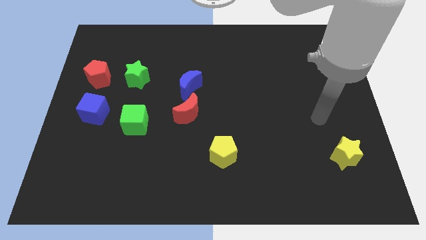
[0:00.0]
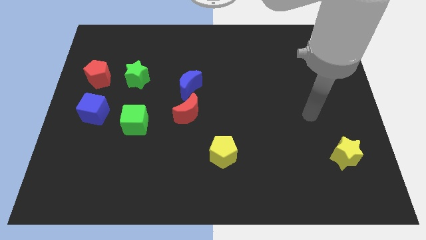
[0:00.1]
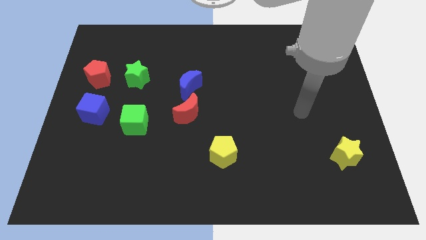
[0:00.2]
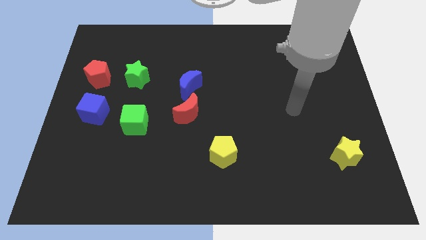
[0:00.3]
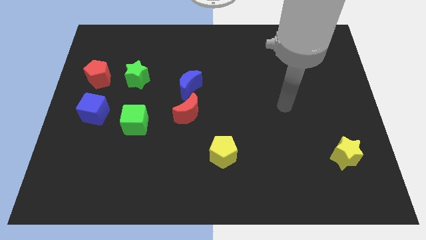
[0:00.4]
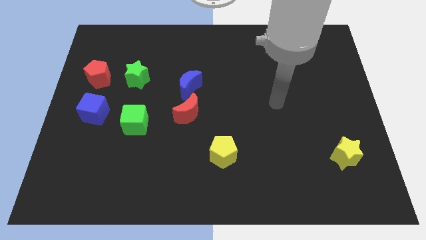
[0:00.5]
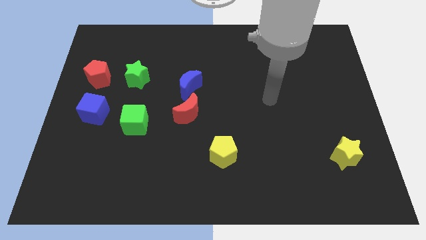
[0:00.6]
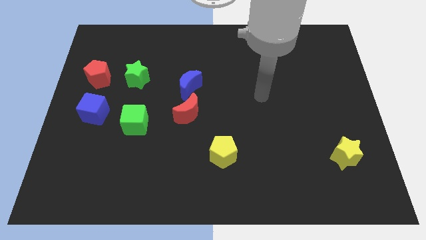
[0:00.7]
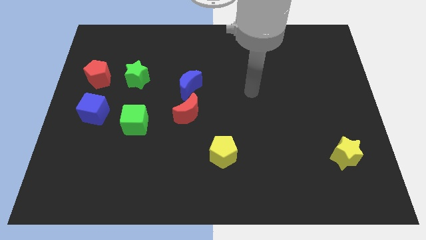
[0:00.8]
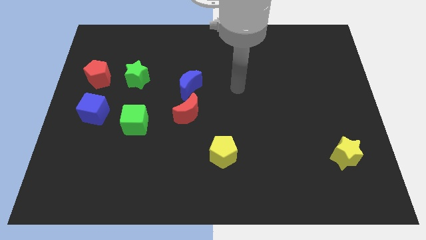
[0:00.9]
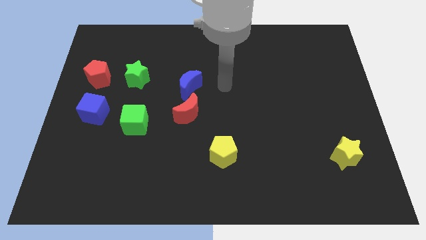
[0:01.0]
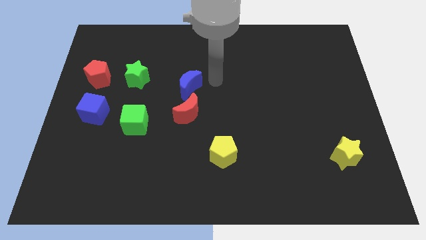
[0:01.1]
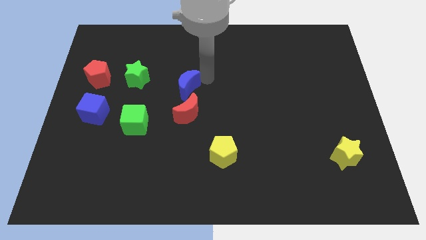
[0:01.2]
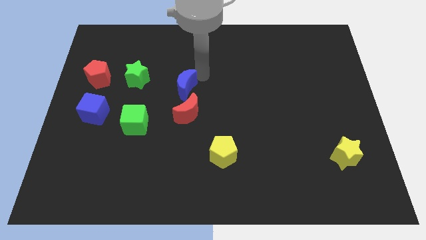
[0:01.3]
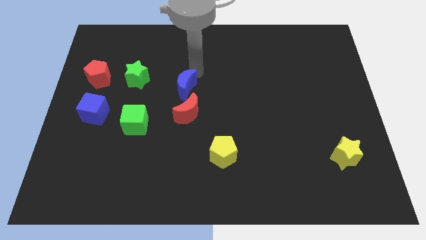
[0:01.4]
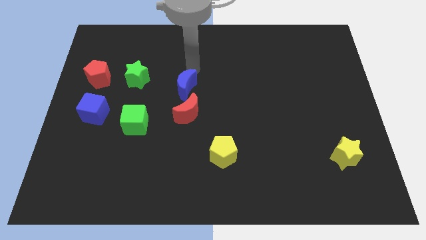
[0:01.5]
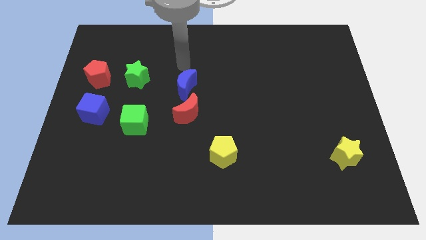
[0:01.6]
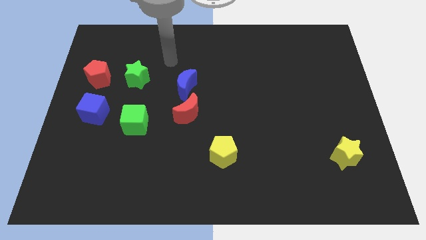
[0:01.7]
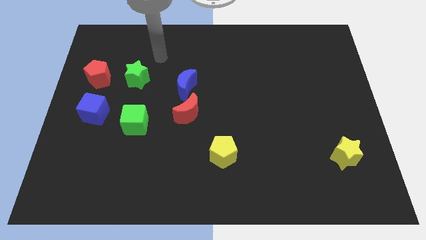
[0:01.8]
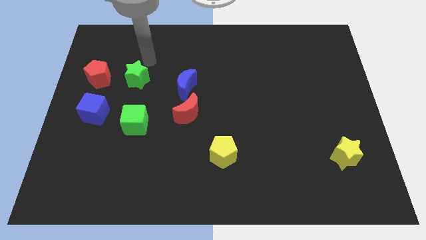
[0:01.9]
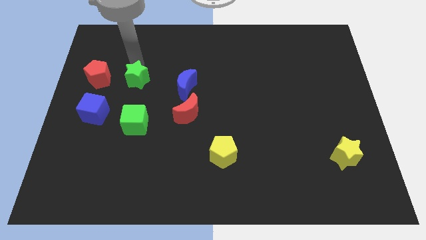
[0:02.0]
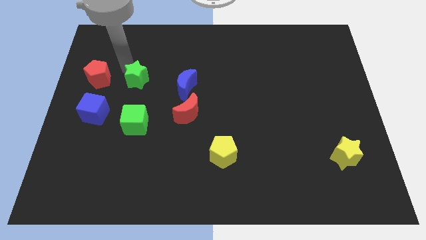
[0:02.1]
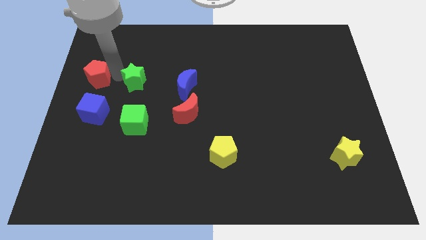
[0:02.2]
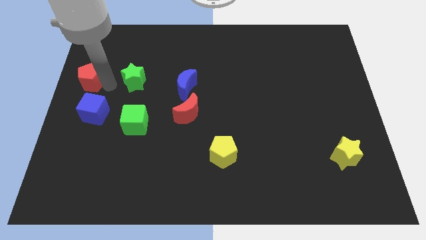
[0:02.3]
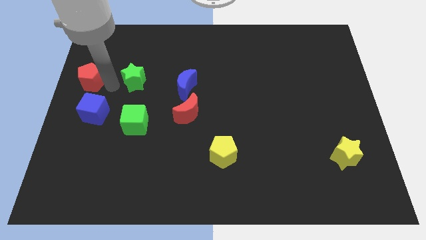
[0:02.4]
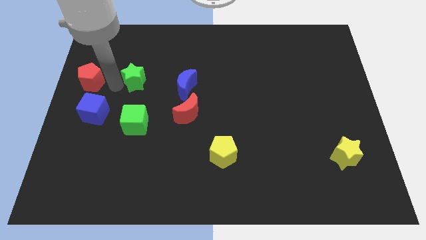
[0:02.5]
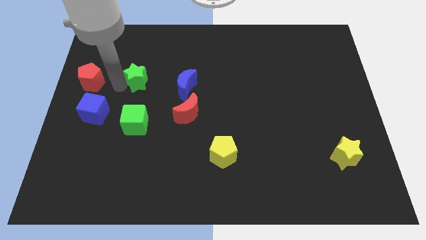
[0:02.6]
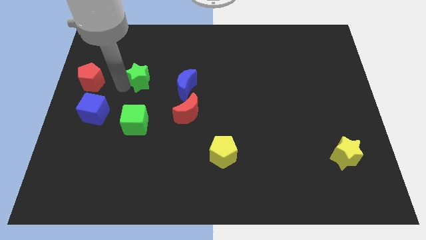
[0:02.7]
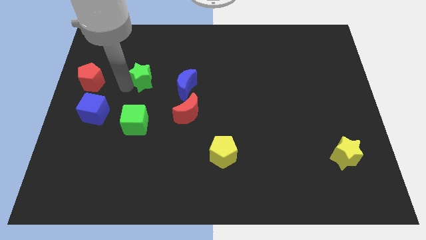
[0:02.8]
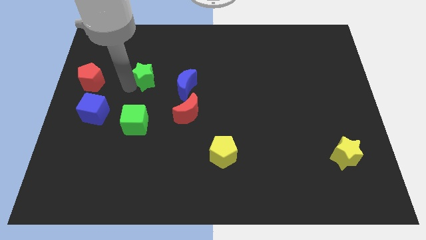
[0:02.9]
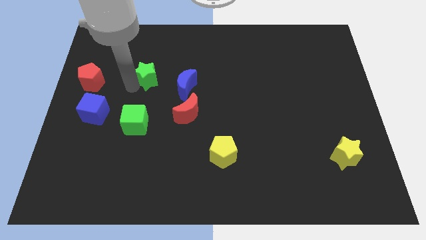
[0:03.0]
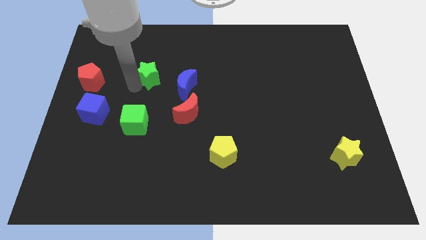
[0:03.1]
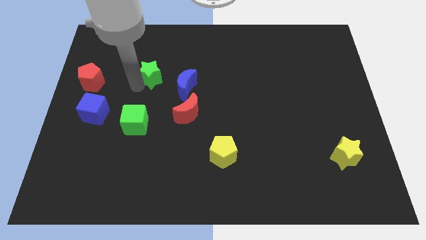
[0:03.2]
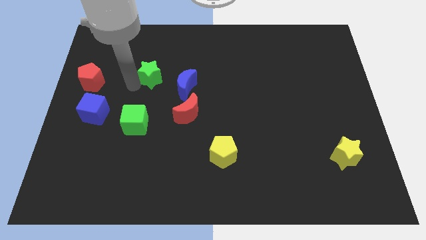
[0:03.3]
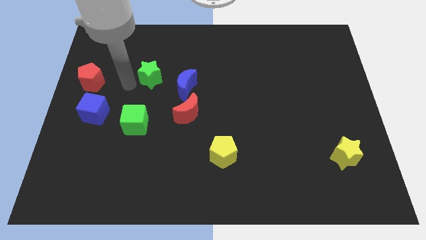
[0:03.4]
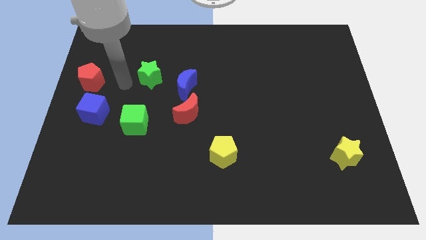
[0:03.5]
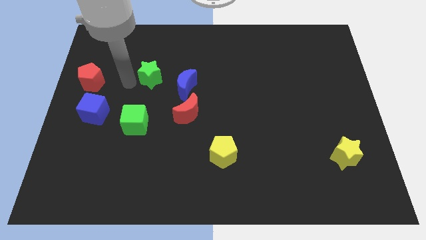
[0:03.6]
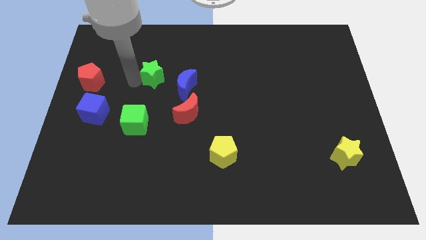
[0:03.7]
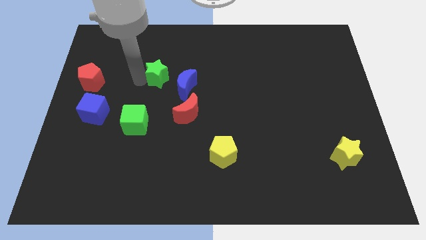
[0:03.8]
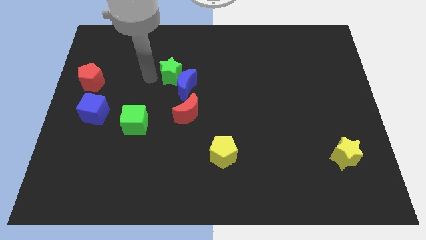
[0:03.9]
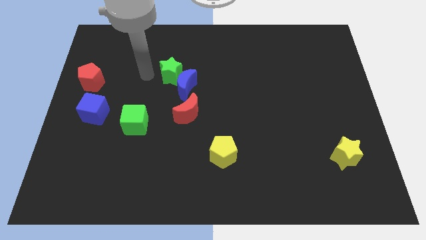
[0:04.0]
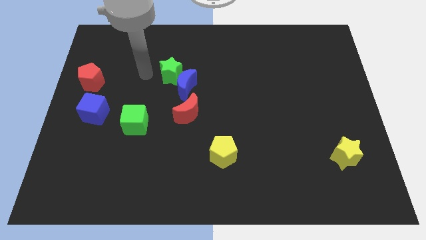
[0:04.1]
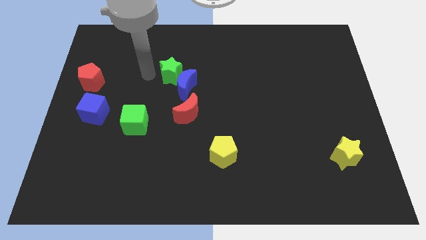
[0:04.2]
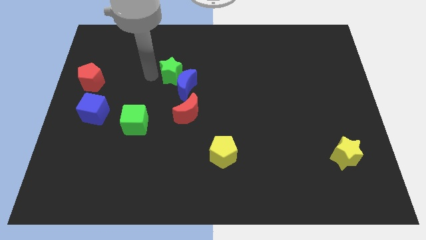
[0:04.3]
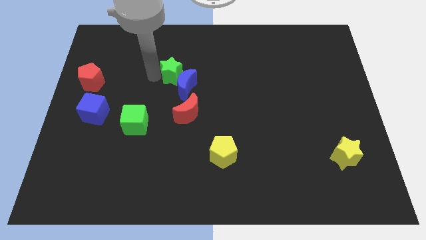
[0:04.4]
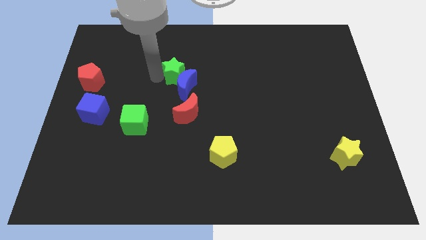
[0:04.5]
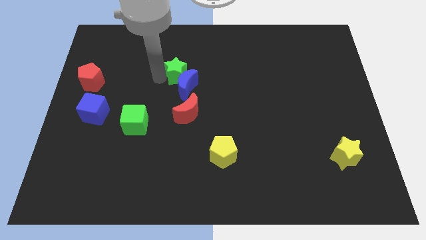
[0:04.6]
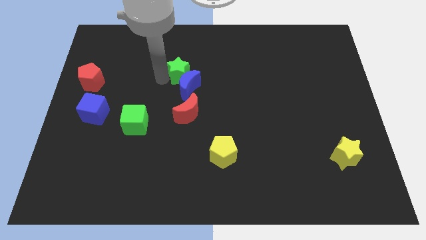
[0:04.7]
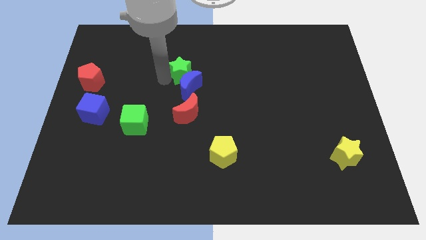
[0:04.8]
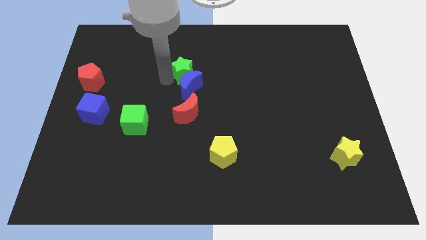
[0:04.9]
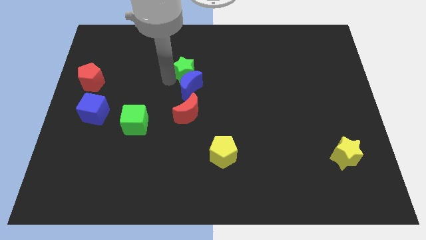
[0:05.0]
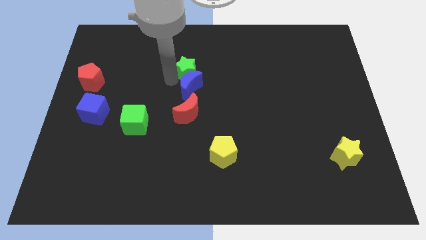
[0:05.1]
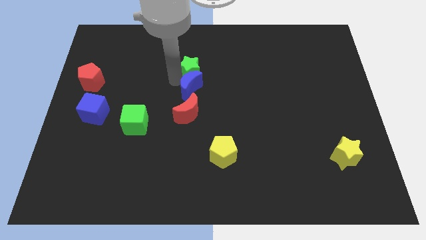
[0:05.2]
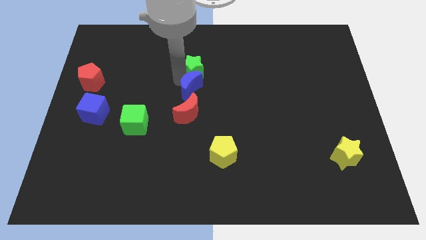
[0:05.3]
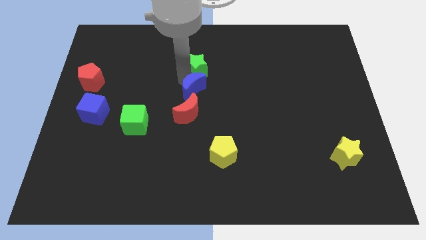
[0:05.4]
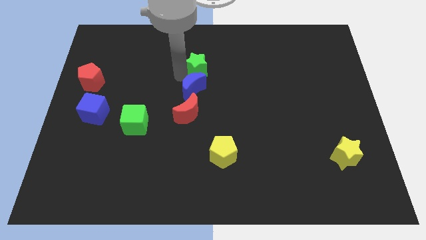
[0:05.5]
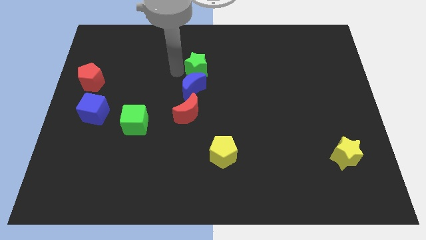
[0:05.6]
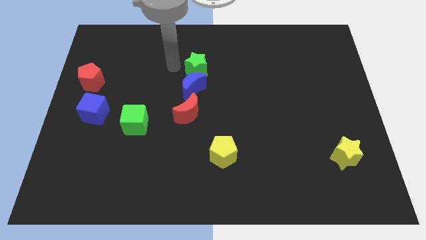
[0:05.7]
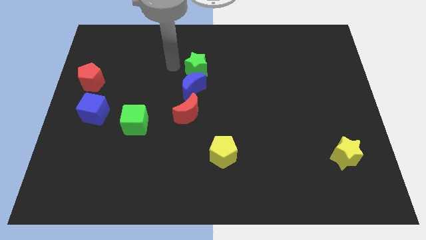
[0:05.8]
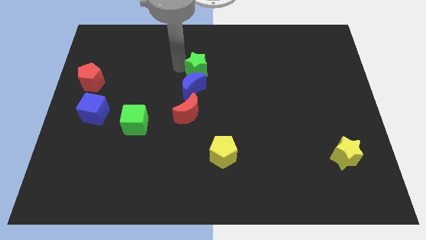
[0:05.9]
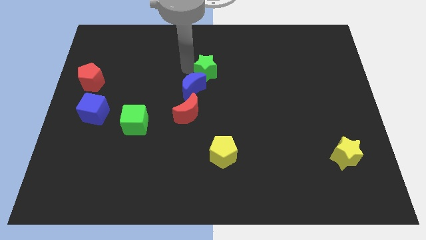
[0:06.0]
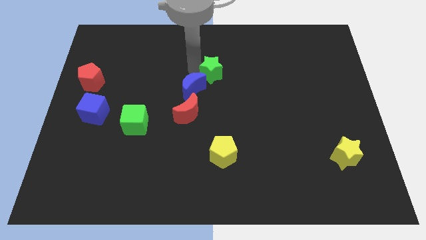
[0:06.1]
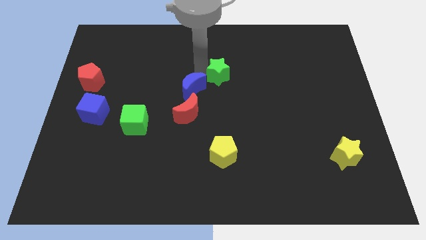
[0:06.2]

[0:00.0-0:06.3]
move the green star right

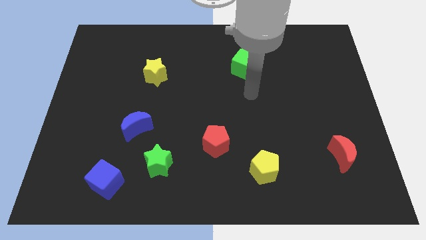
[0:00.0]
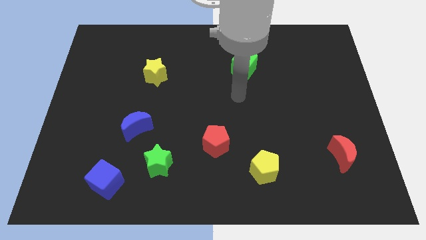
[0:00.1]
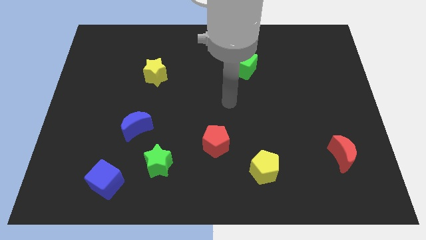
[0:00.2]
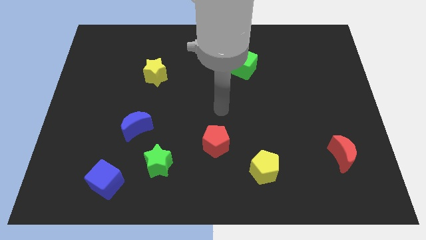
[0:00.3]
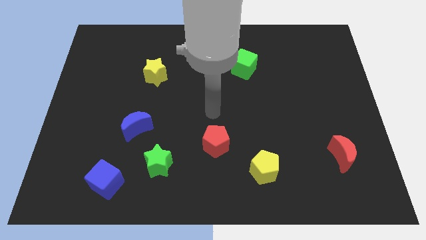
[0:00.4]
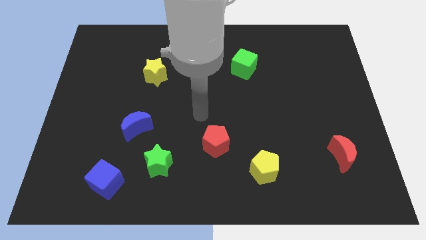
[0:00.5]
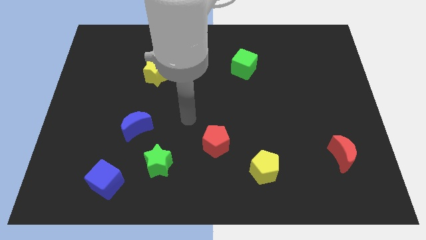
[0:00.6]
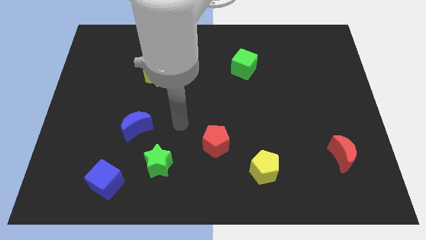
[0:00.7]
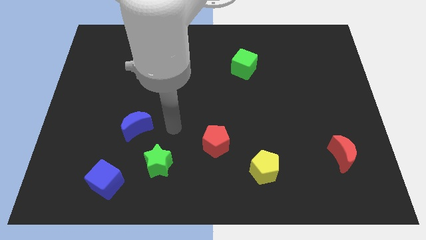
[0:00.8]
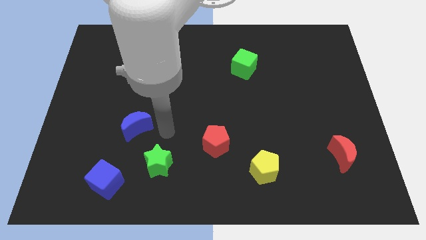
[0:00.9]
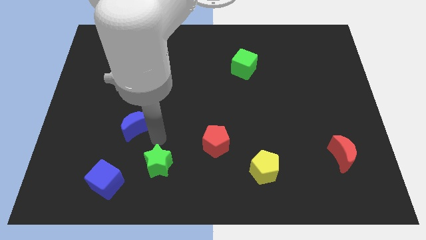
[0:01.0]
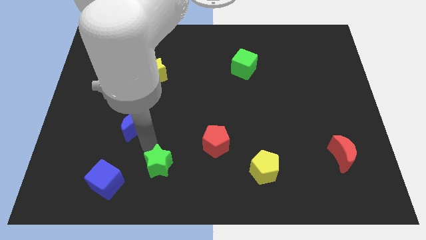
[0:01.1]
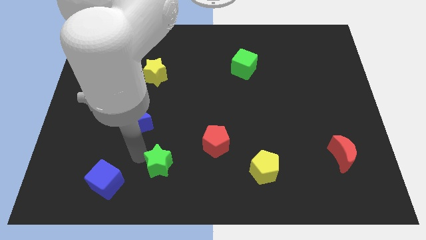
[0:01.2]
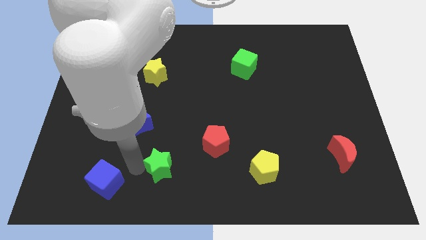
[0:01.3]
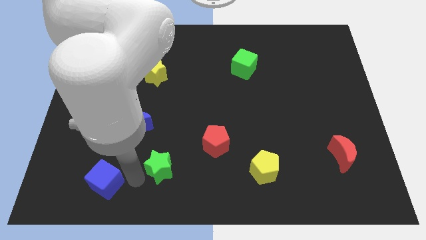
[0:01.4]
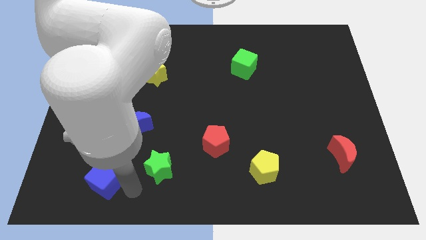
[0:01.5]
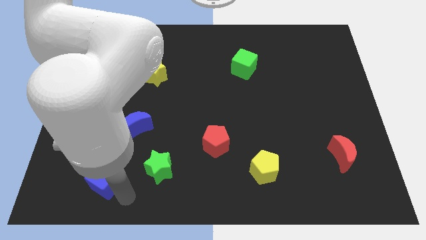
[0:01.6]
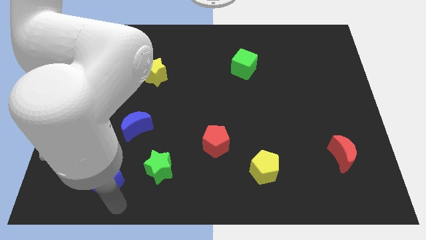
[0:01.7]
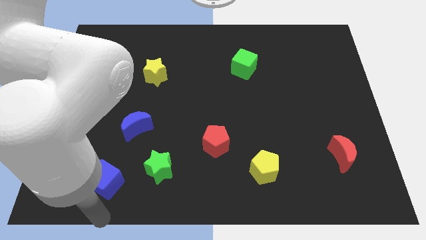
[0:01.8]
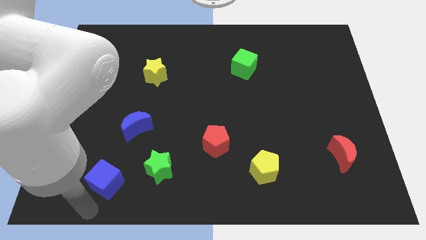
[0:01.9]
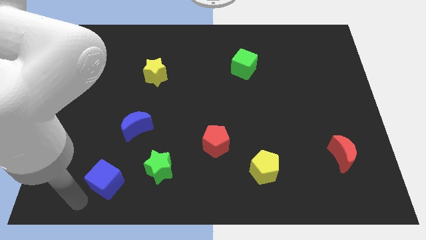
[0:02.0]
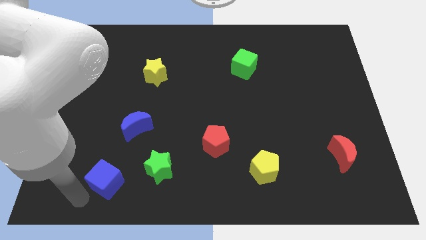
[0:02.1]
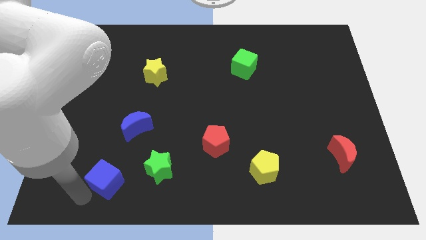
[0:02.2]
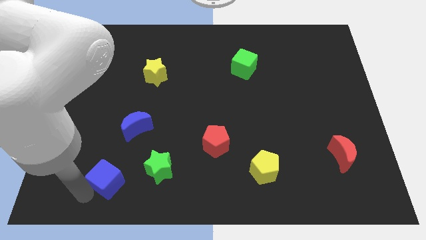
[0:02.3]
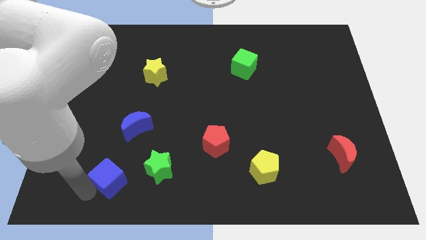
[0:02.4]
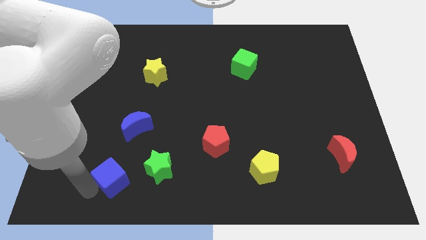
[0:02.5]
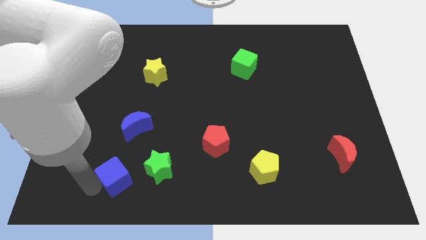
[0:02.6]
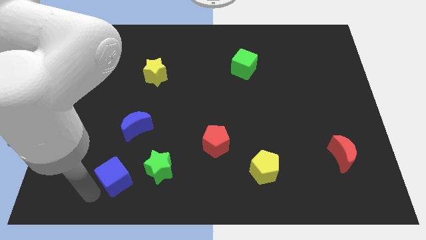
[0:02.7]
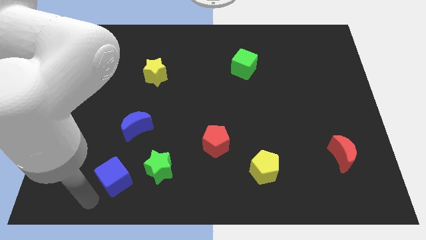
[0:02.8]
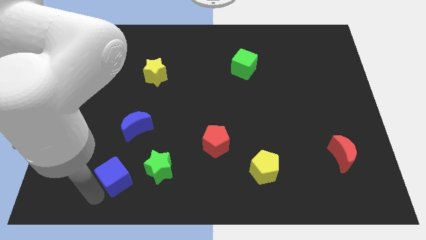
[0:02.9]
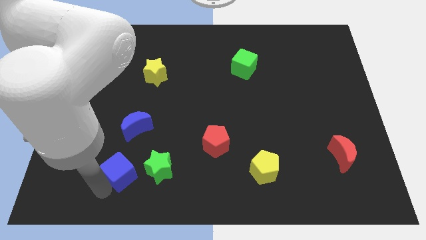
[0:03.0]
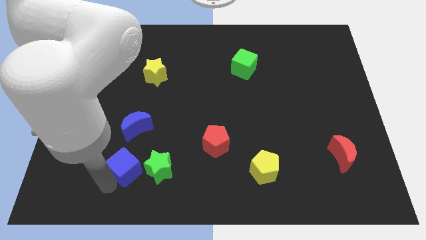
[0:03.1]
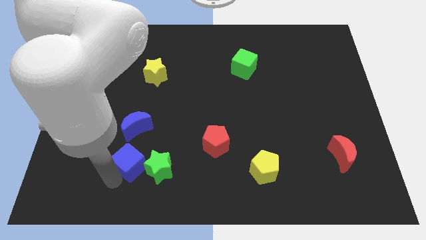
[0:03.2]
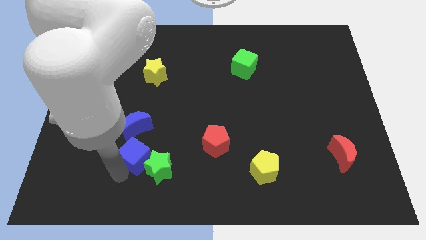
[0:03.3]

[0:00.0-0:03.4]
slightly push the blue cube up and right
